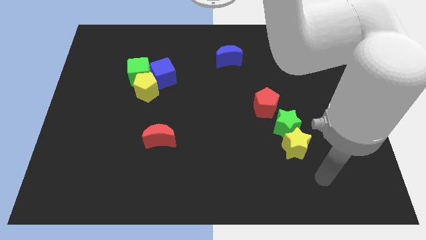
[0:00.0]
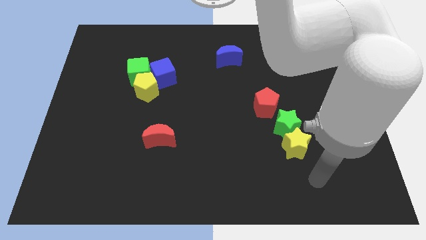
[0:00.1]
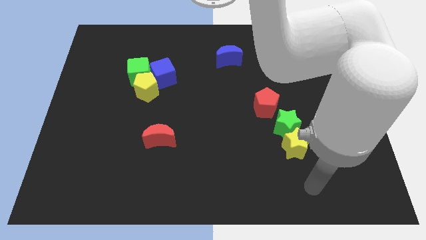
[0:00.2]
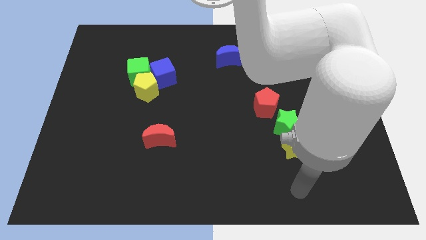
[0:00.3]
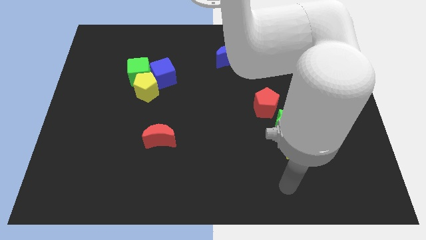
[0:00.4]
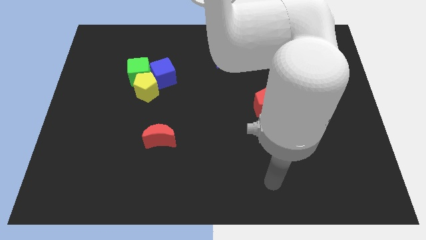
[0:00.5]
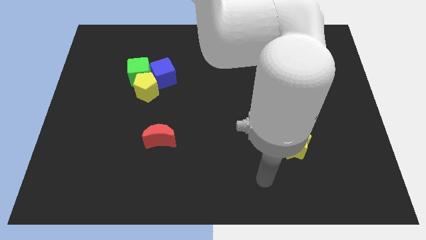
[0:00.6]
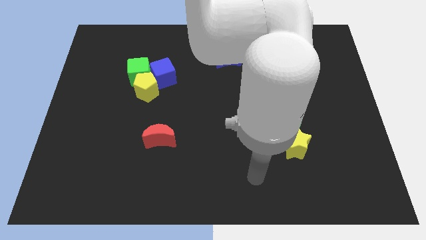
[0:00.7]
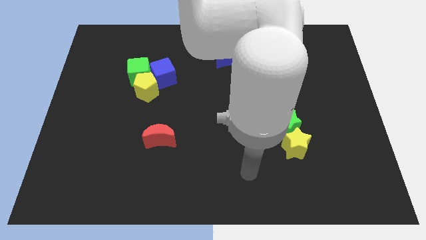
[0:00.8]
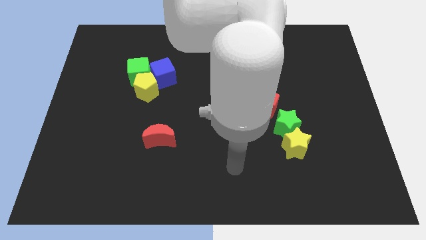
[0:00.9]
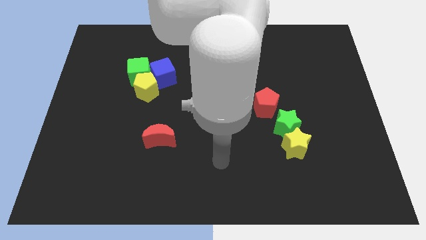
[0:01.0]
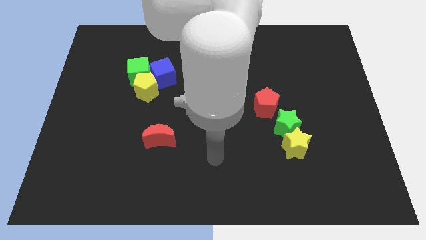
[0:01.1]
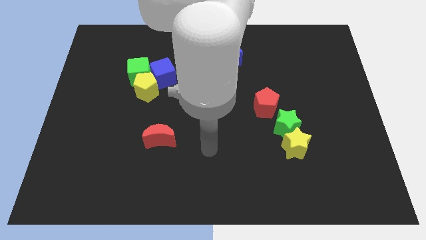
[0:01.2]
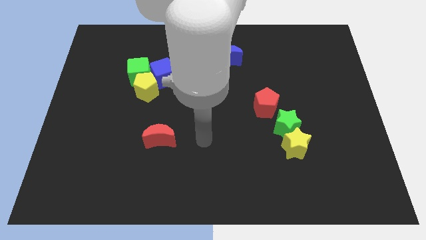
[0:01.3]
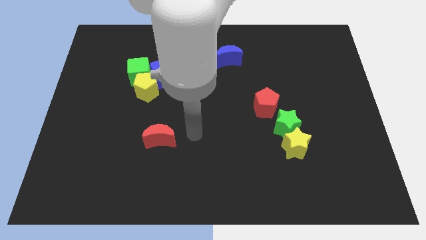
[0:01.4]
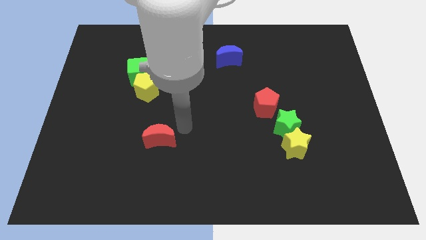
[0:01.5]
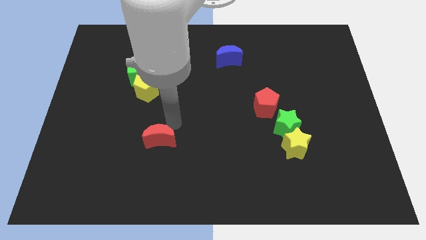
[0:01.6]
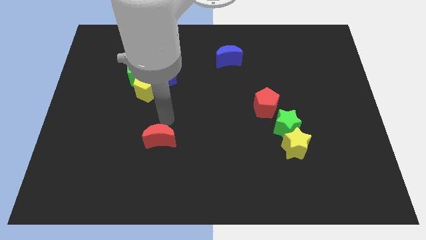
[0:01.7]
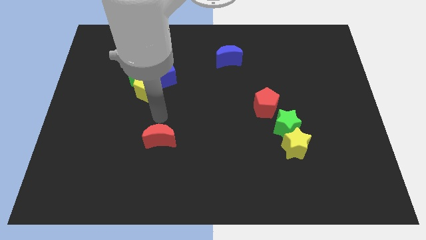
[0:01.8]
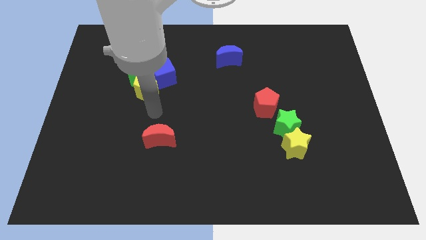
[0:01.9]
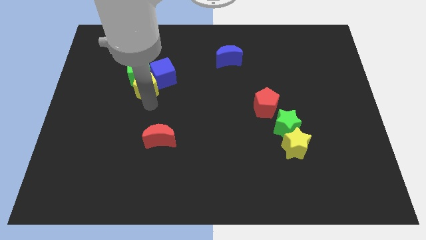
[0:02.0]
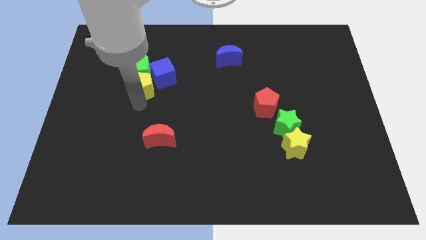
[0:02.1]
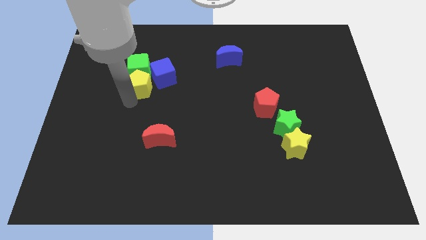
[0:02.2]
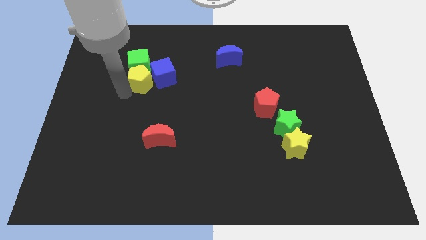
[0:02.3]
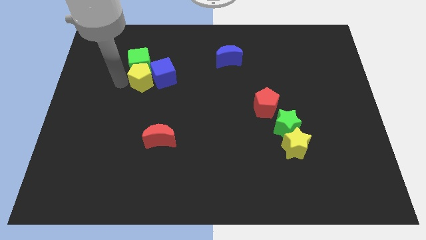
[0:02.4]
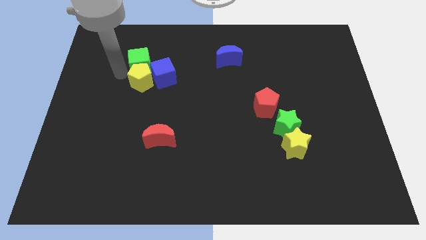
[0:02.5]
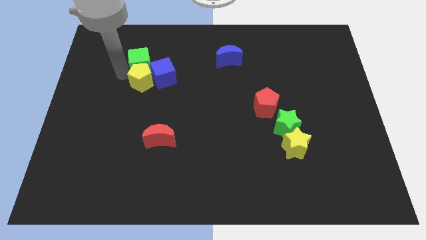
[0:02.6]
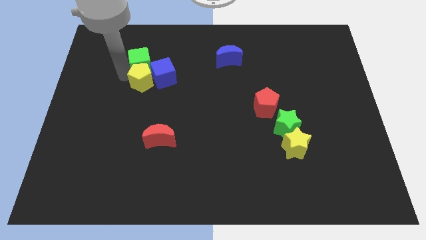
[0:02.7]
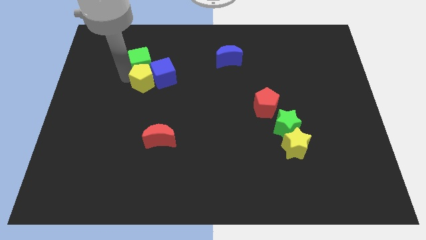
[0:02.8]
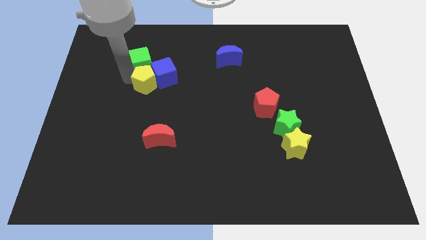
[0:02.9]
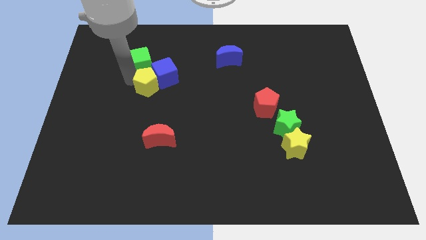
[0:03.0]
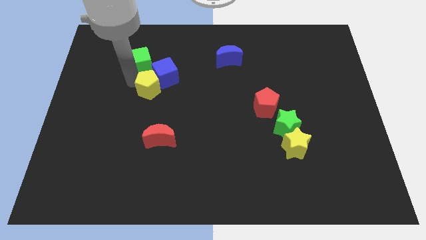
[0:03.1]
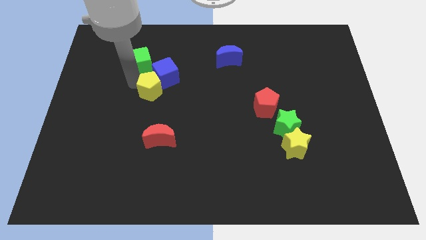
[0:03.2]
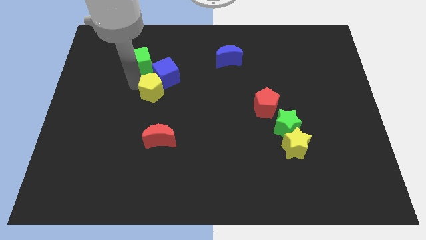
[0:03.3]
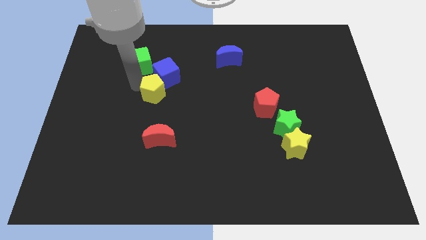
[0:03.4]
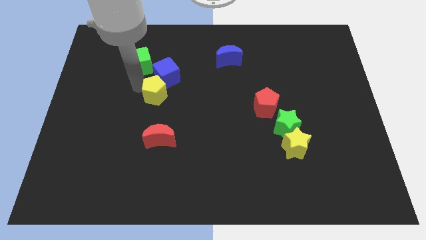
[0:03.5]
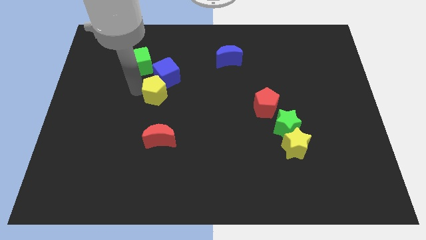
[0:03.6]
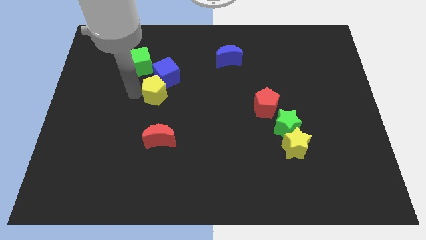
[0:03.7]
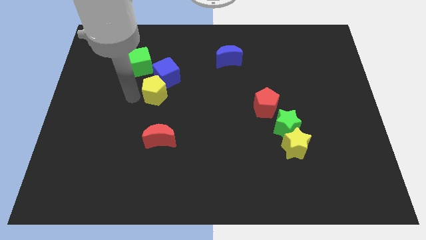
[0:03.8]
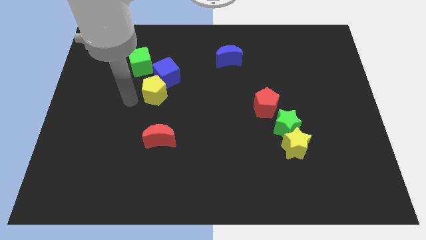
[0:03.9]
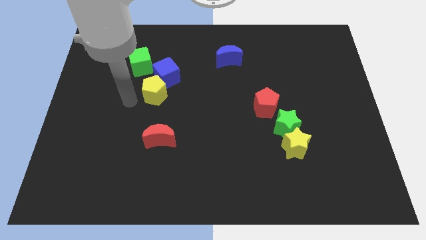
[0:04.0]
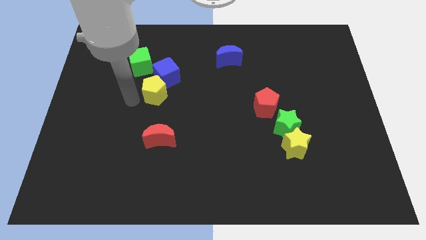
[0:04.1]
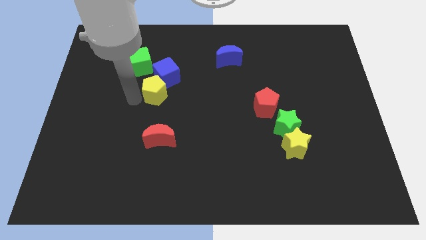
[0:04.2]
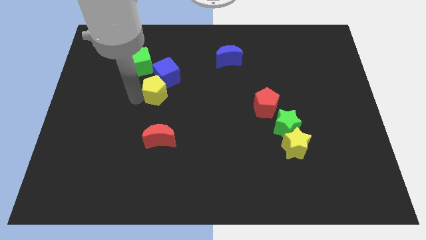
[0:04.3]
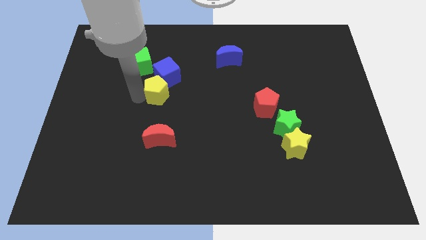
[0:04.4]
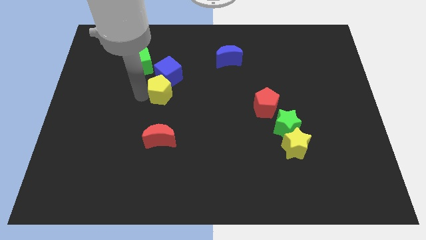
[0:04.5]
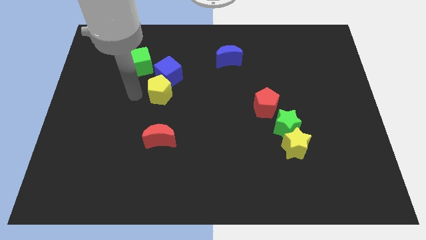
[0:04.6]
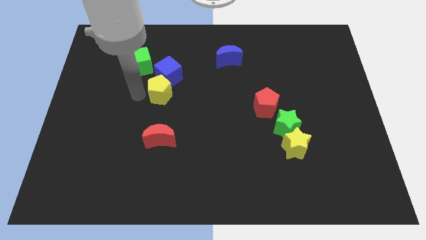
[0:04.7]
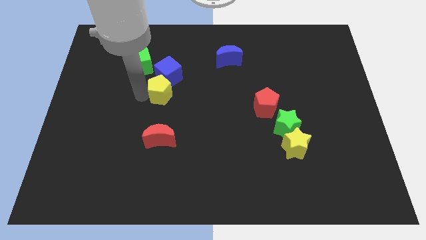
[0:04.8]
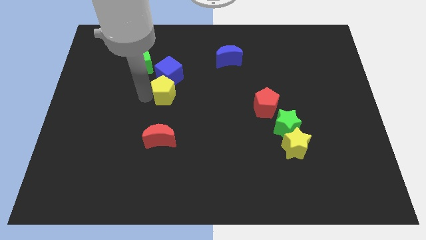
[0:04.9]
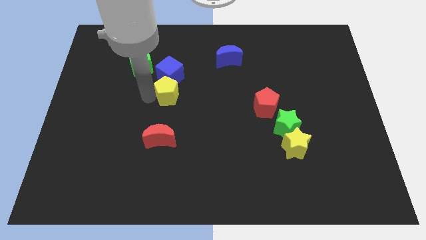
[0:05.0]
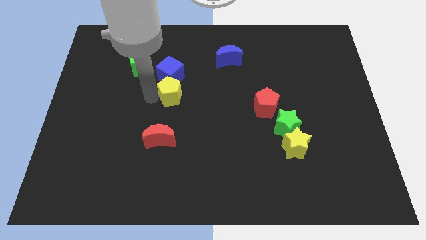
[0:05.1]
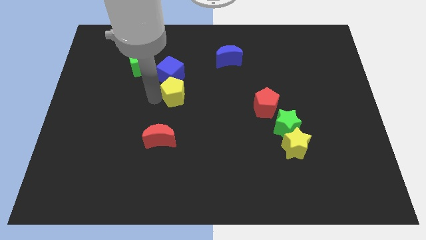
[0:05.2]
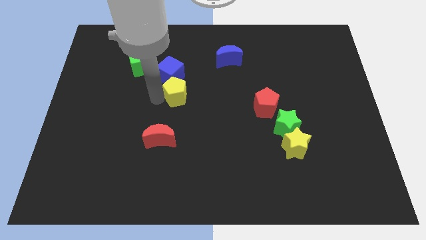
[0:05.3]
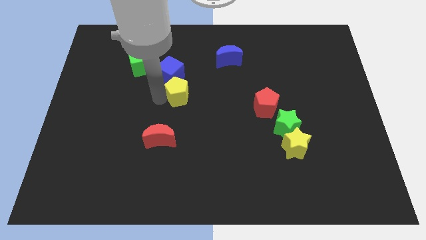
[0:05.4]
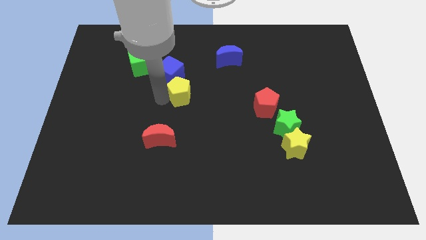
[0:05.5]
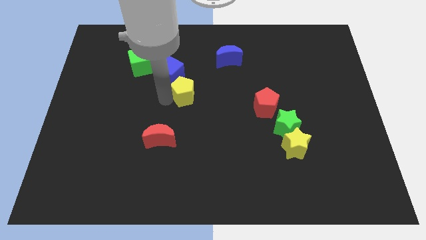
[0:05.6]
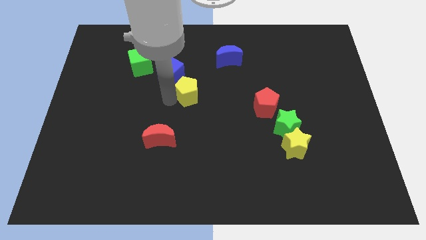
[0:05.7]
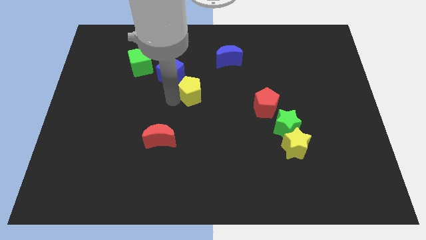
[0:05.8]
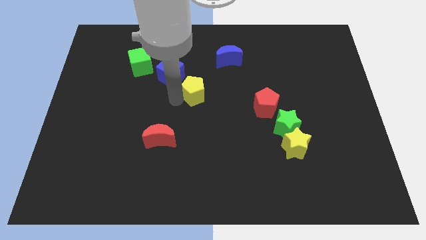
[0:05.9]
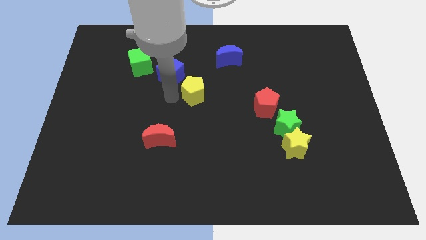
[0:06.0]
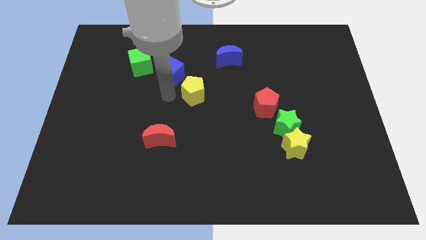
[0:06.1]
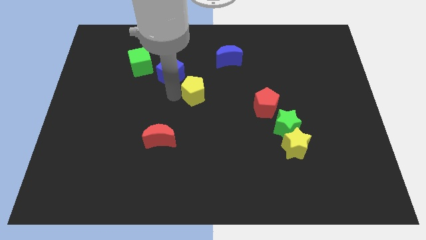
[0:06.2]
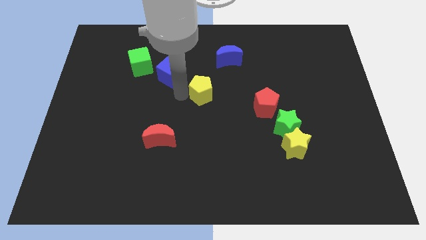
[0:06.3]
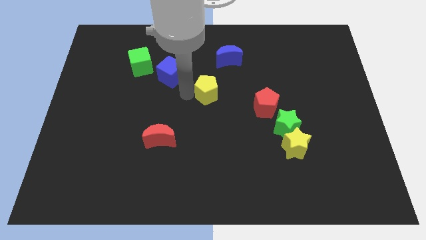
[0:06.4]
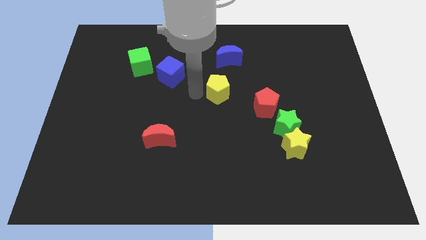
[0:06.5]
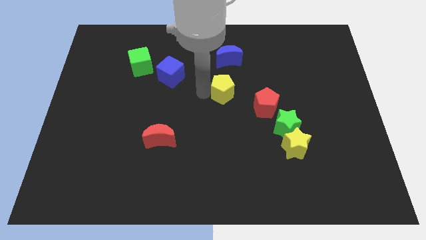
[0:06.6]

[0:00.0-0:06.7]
push the yellow pentagon to the top left side of the red pentagon

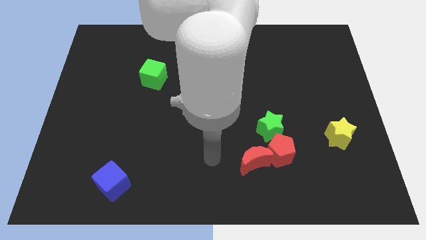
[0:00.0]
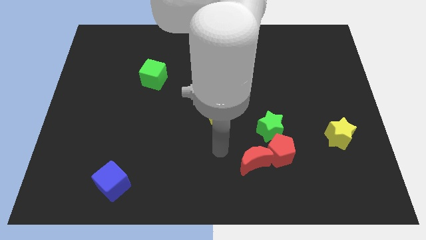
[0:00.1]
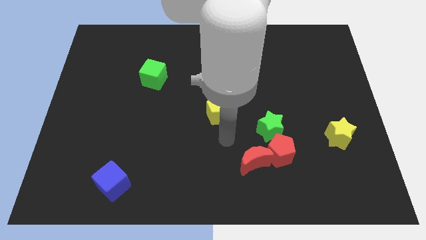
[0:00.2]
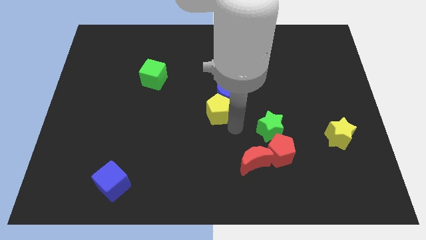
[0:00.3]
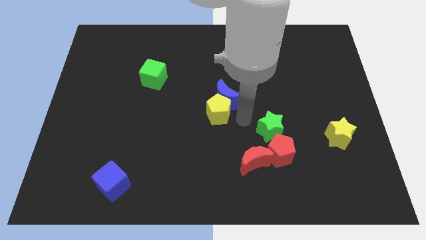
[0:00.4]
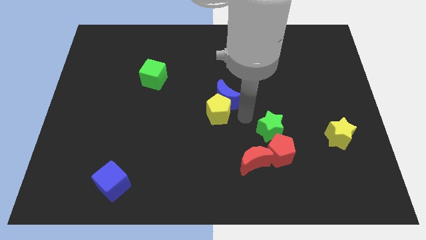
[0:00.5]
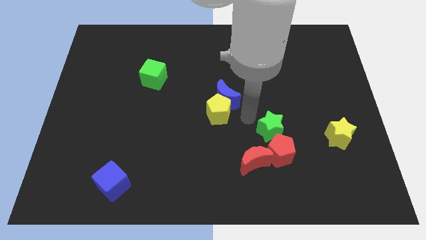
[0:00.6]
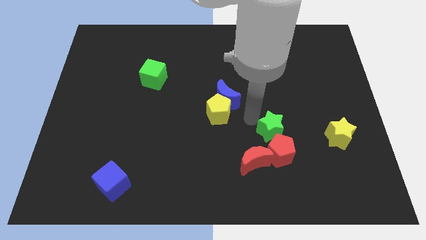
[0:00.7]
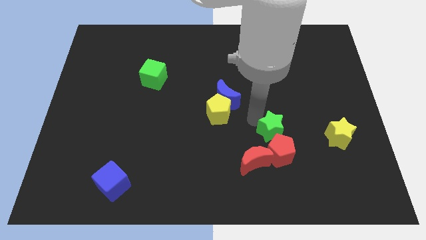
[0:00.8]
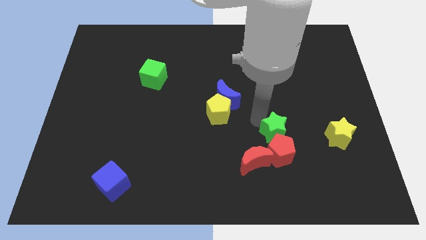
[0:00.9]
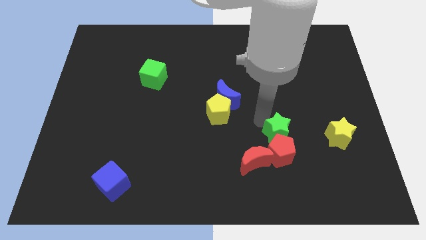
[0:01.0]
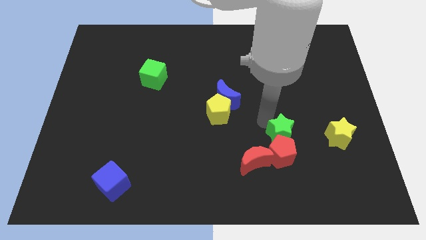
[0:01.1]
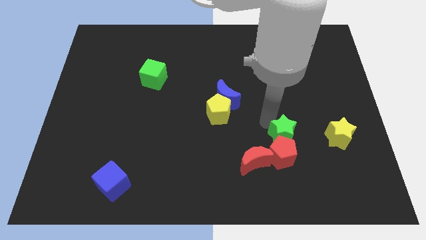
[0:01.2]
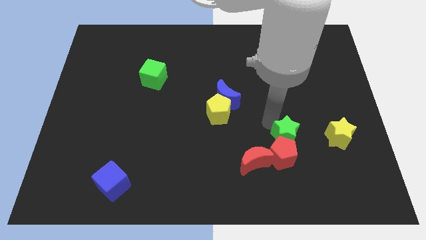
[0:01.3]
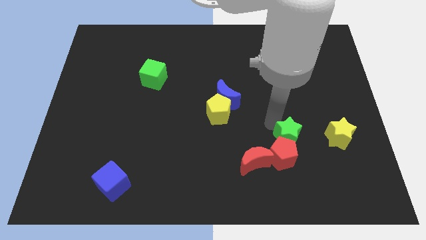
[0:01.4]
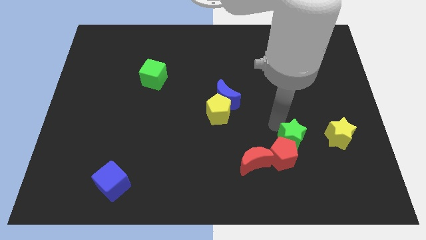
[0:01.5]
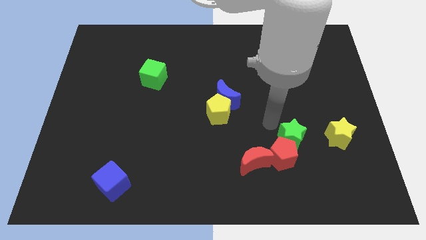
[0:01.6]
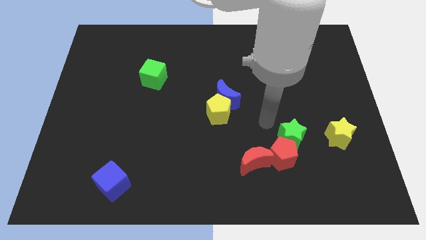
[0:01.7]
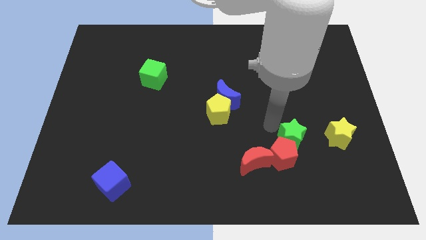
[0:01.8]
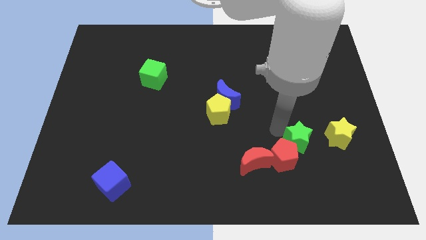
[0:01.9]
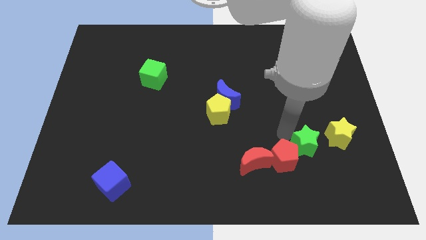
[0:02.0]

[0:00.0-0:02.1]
move the green star to the bottom left side of the yellow star
